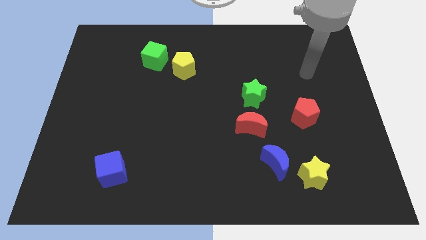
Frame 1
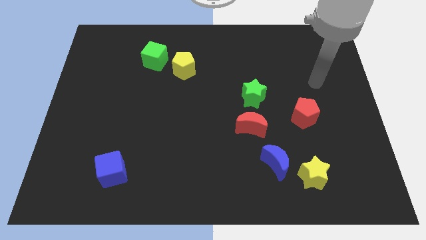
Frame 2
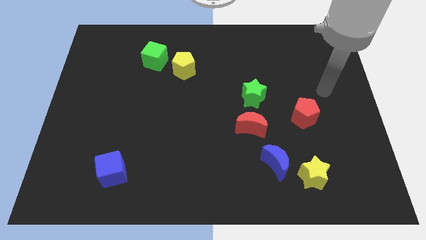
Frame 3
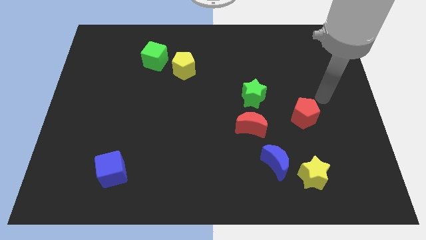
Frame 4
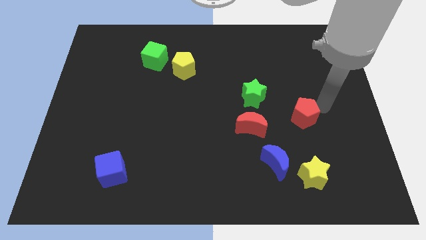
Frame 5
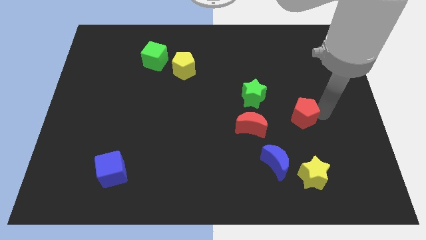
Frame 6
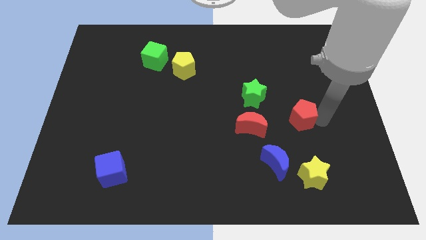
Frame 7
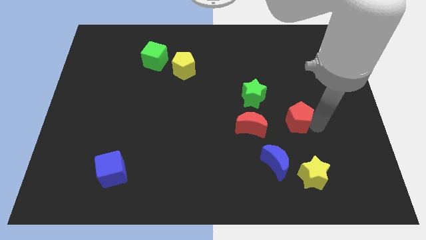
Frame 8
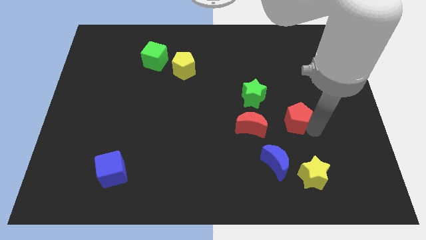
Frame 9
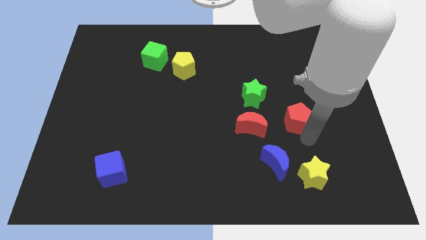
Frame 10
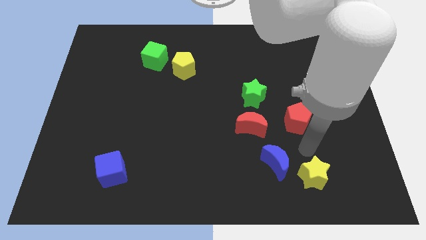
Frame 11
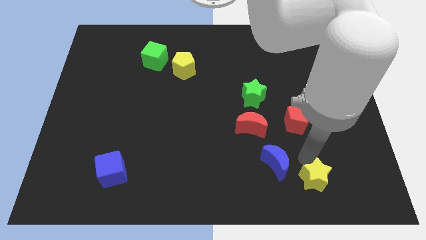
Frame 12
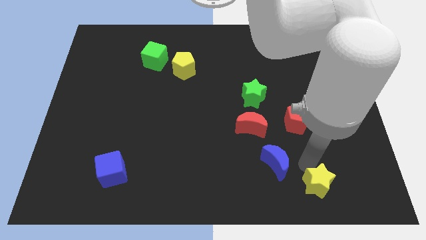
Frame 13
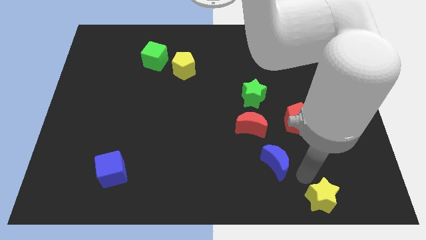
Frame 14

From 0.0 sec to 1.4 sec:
separate the blue moon from the yellow star

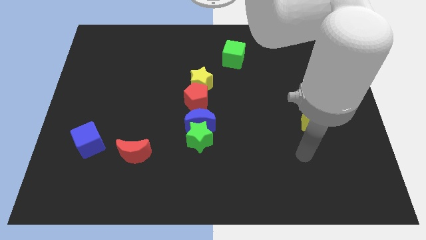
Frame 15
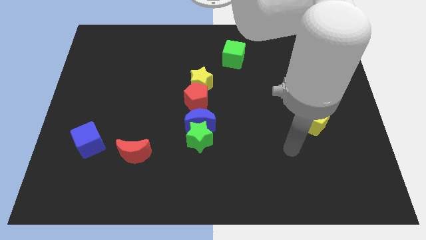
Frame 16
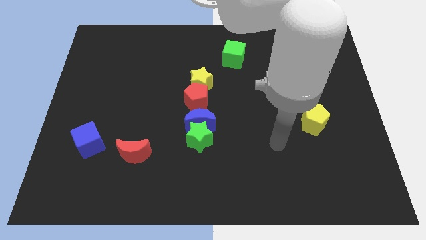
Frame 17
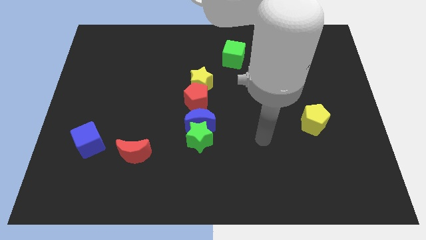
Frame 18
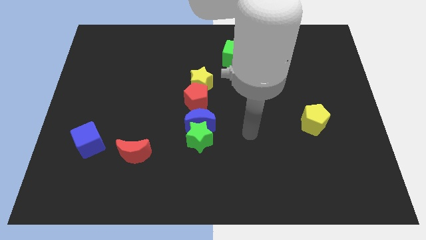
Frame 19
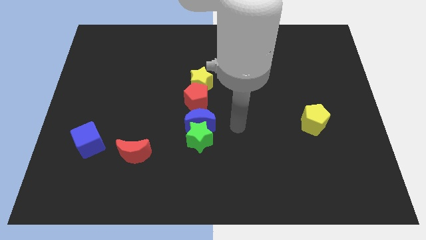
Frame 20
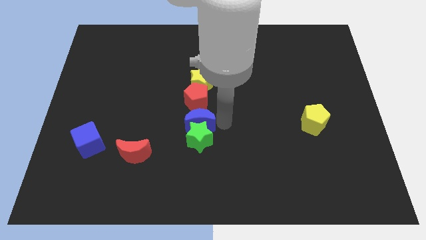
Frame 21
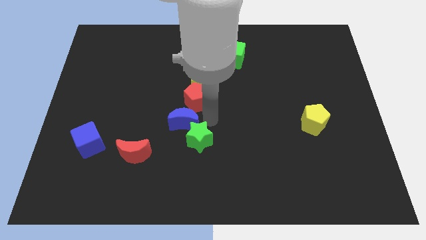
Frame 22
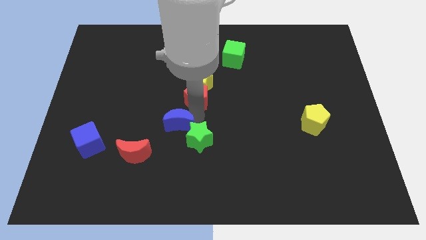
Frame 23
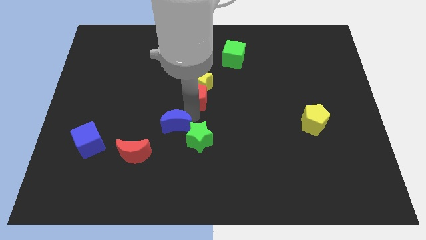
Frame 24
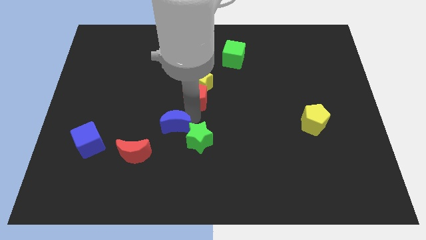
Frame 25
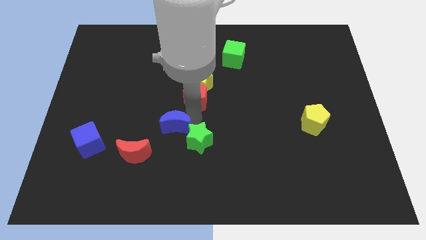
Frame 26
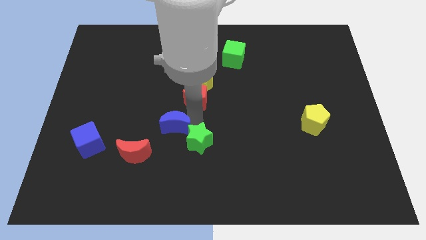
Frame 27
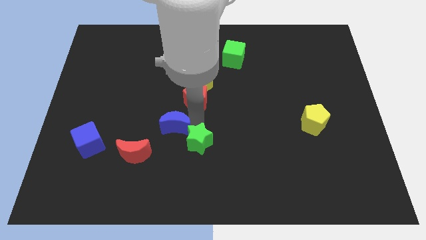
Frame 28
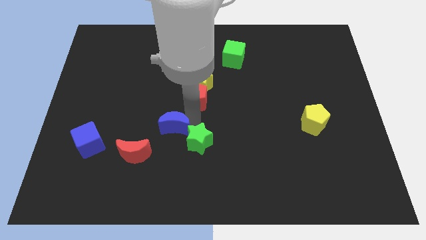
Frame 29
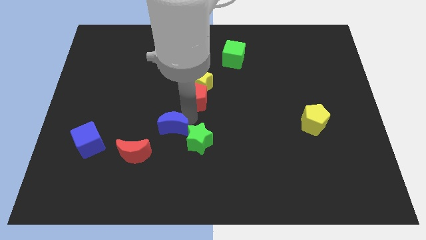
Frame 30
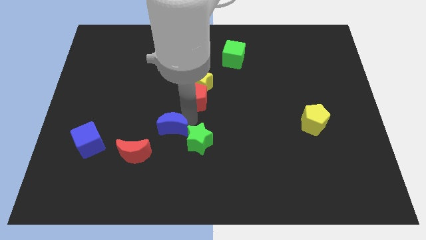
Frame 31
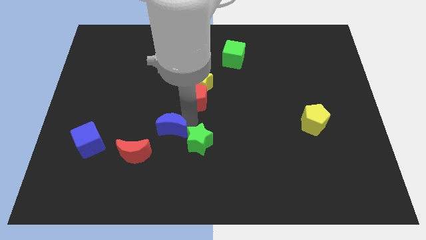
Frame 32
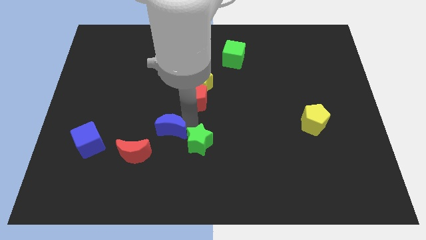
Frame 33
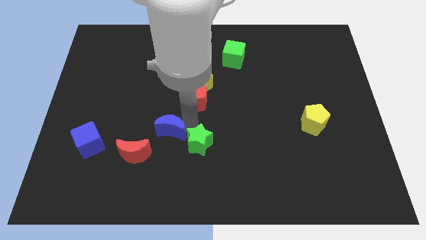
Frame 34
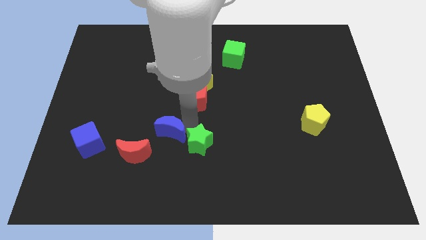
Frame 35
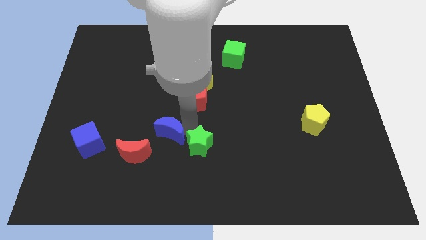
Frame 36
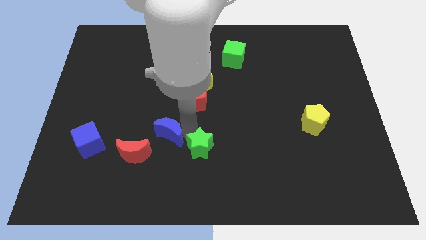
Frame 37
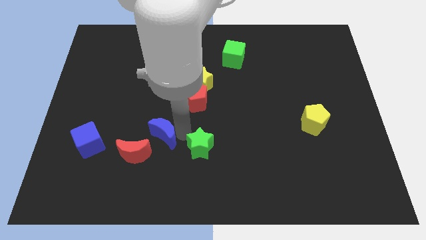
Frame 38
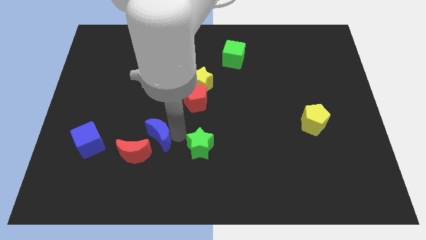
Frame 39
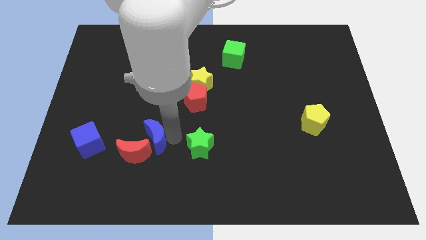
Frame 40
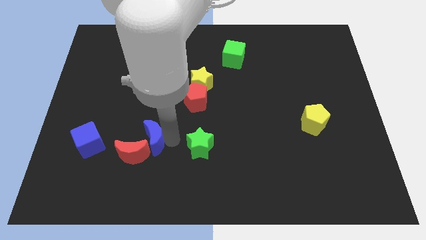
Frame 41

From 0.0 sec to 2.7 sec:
move the green star away from the blue moon

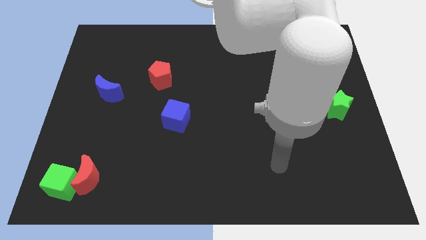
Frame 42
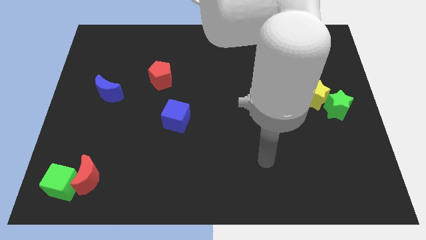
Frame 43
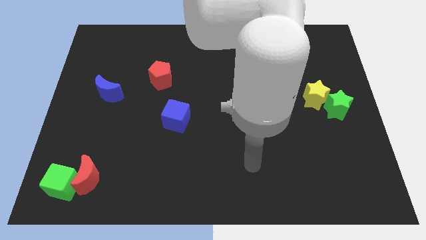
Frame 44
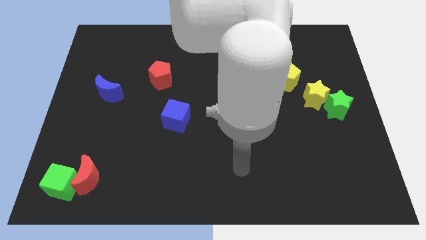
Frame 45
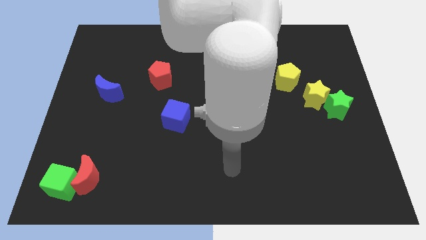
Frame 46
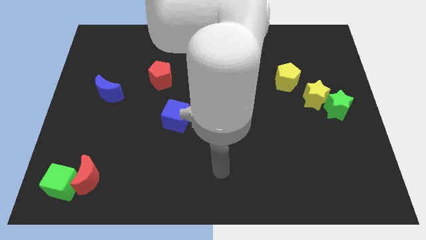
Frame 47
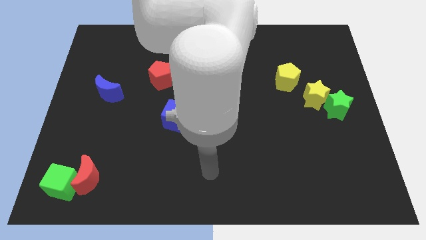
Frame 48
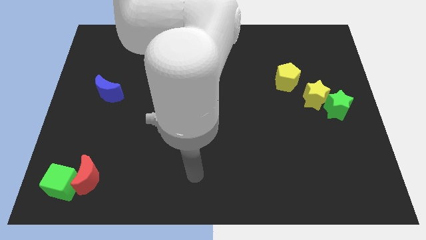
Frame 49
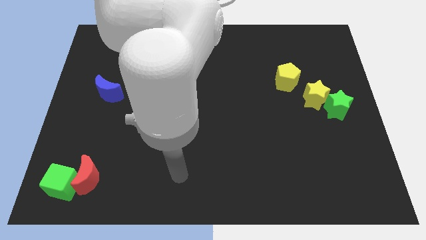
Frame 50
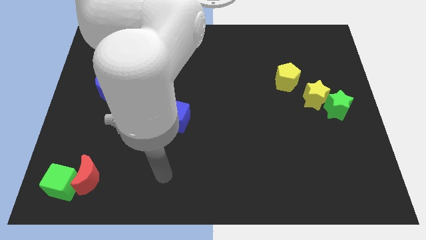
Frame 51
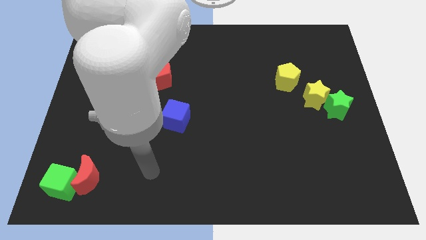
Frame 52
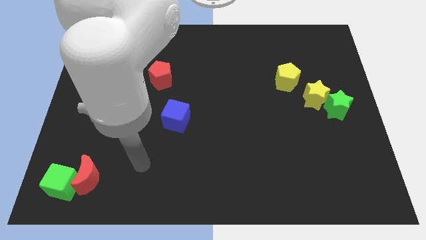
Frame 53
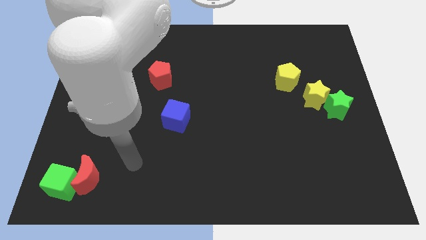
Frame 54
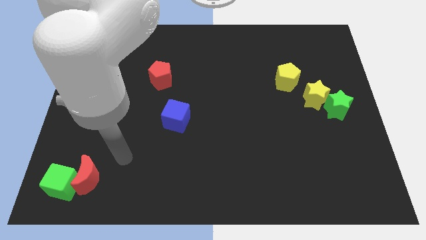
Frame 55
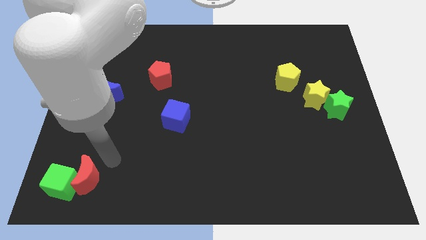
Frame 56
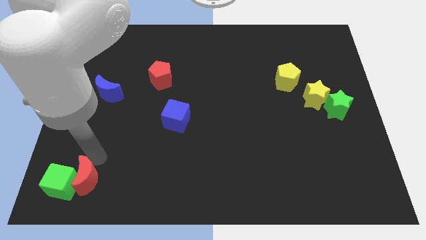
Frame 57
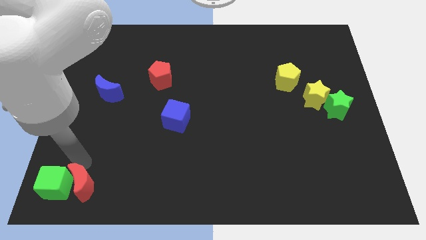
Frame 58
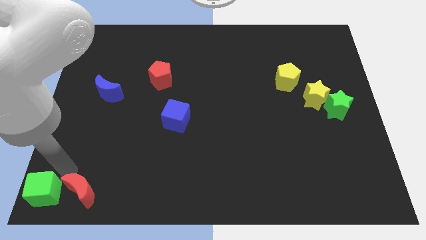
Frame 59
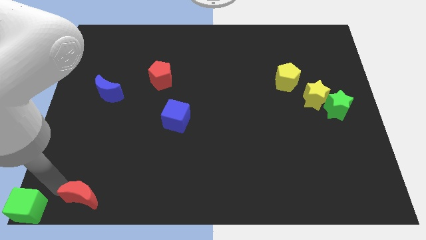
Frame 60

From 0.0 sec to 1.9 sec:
pull the red moon apart from the green cube

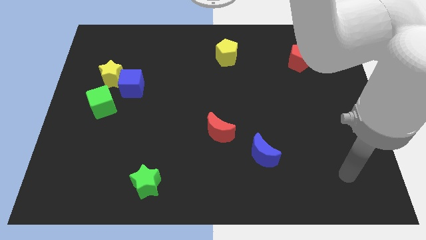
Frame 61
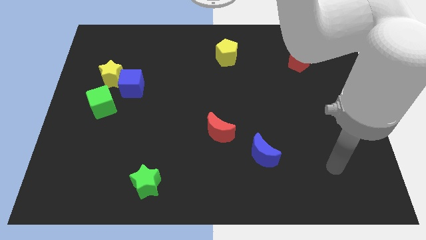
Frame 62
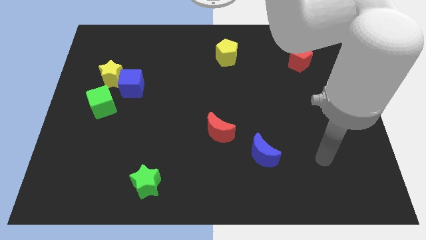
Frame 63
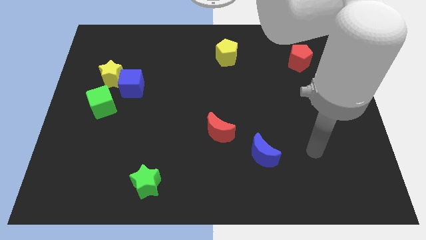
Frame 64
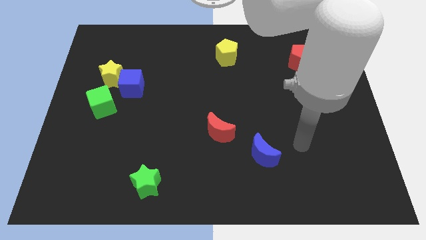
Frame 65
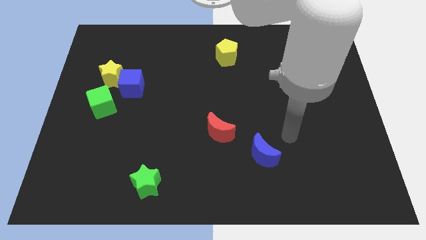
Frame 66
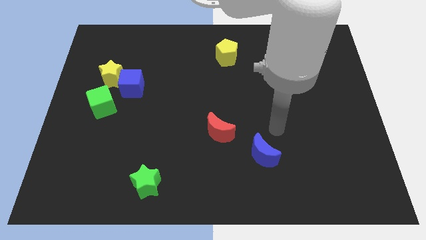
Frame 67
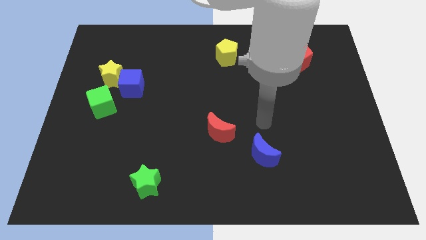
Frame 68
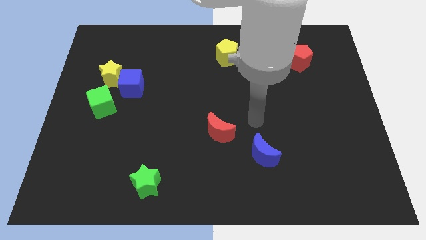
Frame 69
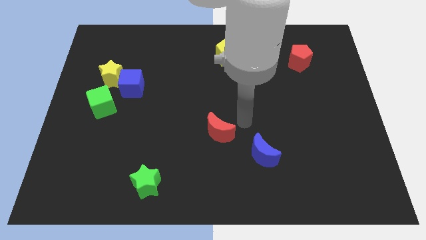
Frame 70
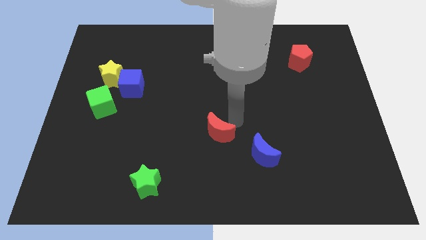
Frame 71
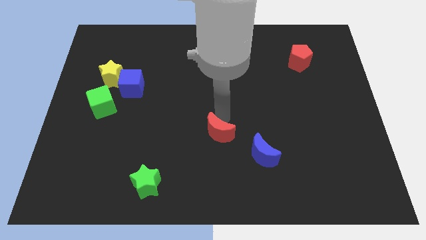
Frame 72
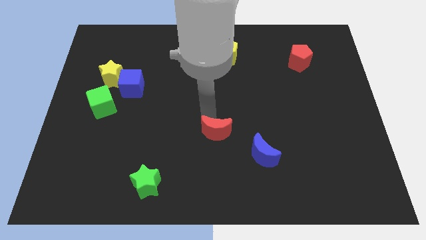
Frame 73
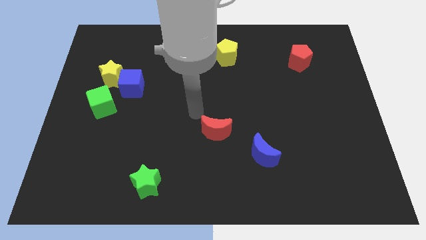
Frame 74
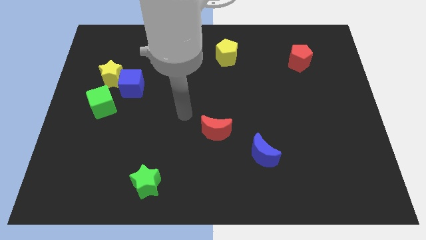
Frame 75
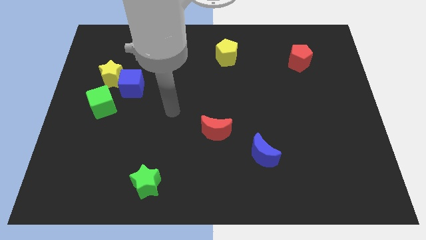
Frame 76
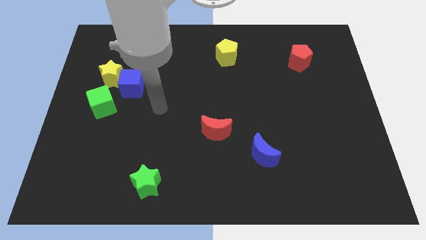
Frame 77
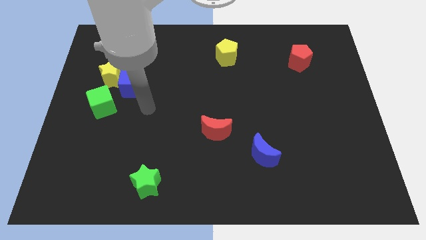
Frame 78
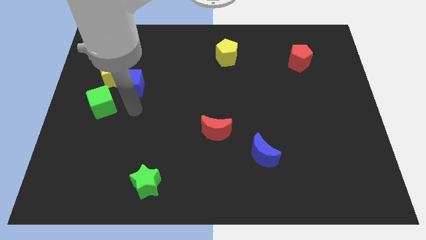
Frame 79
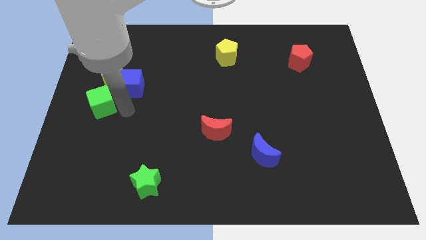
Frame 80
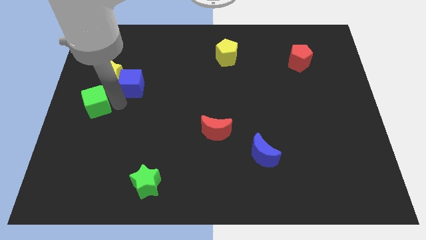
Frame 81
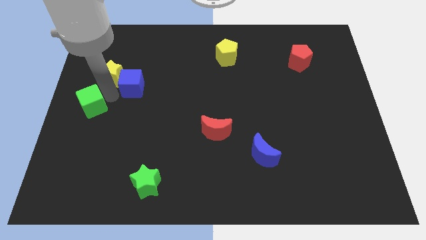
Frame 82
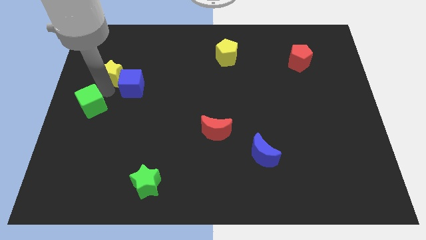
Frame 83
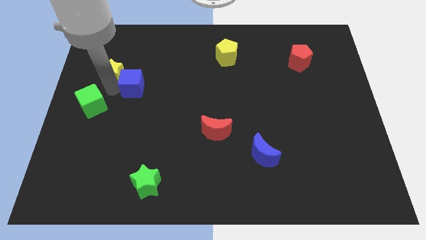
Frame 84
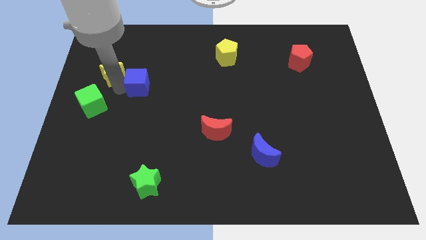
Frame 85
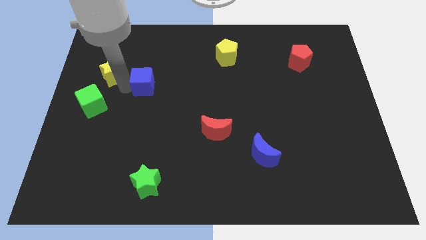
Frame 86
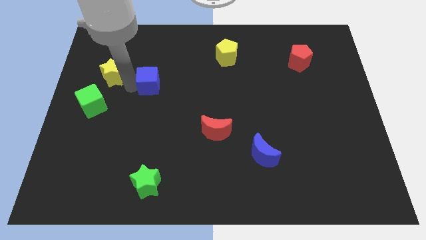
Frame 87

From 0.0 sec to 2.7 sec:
separate the blue cube from the yellow star and green cube

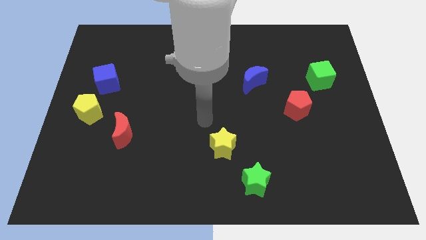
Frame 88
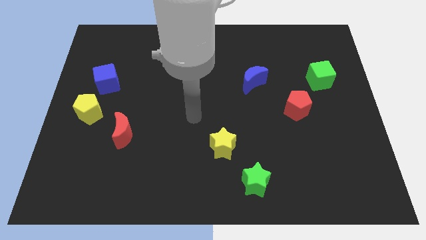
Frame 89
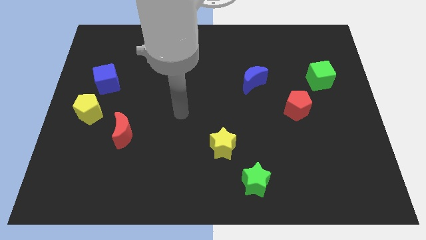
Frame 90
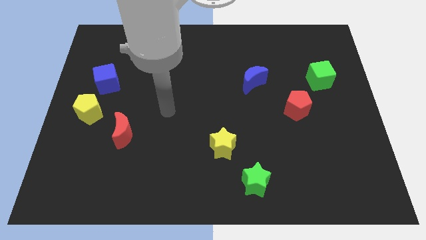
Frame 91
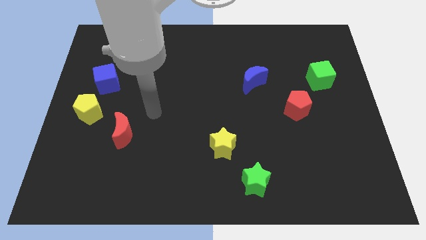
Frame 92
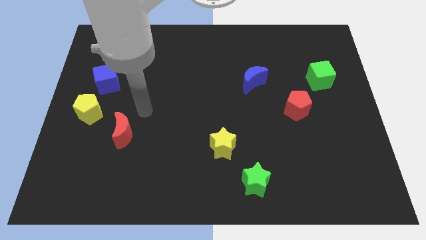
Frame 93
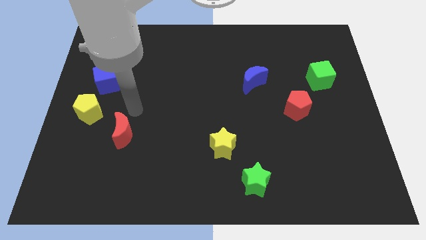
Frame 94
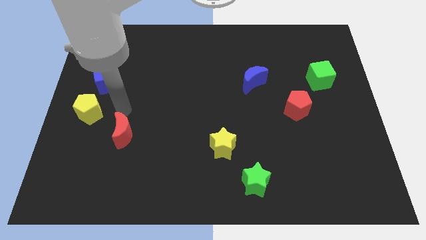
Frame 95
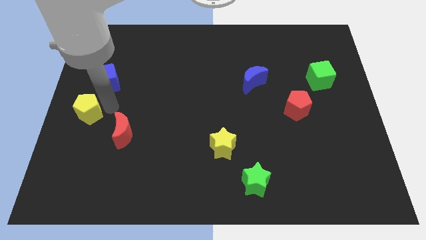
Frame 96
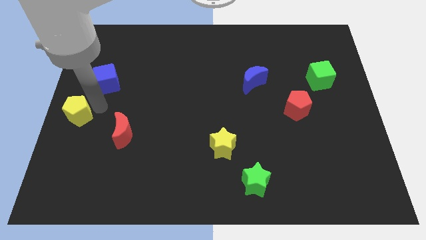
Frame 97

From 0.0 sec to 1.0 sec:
pull the blue cube apart from the yellow pentagon
